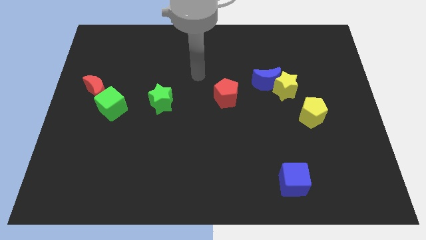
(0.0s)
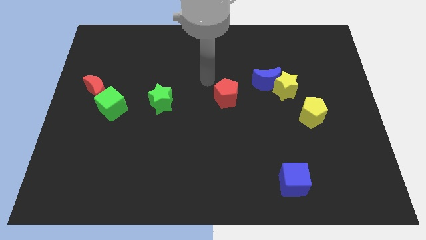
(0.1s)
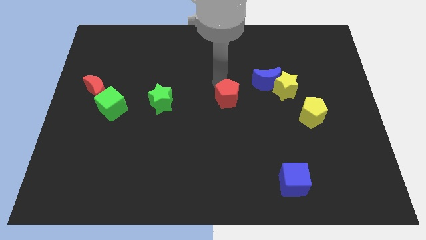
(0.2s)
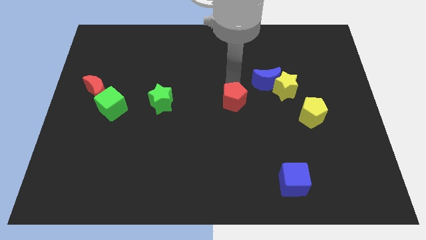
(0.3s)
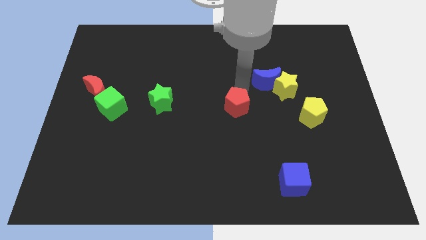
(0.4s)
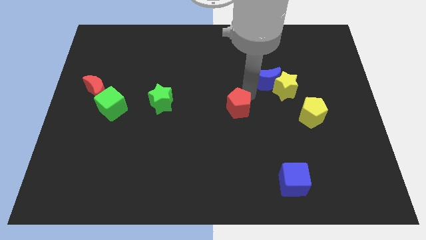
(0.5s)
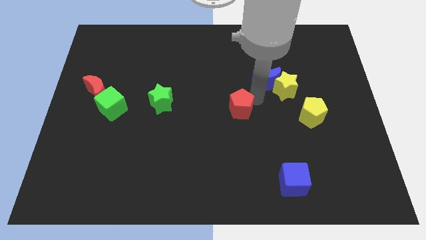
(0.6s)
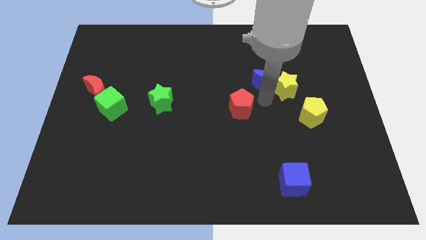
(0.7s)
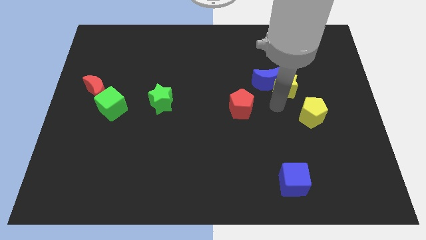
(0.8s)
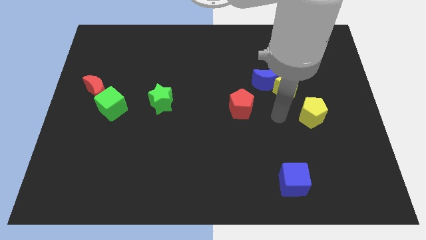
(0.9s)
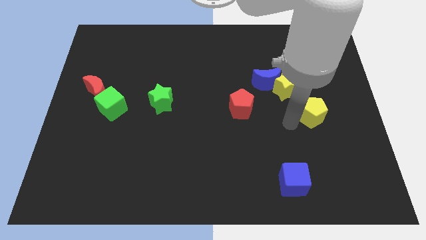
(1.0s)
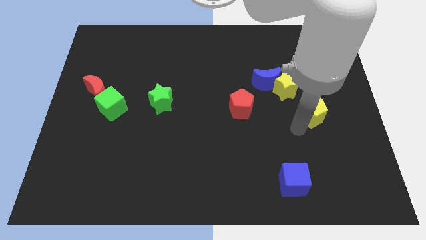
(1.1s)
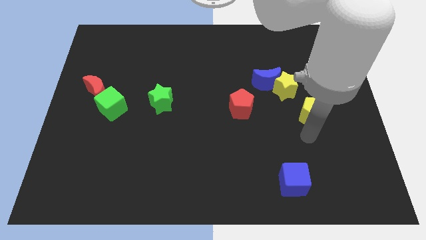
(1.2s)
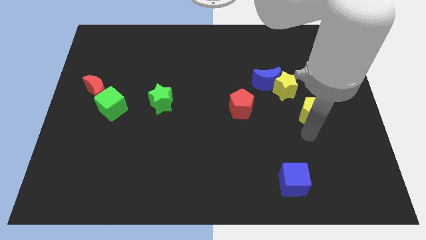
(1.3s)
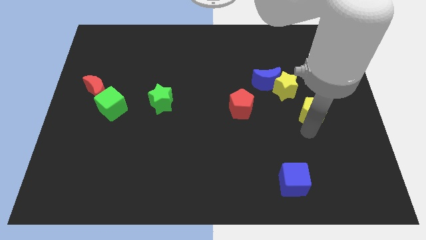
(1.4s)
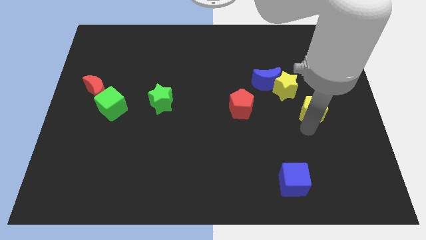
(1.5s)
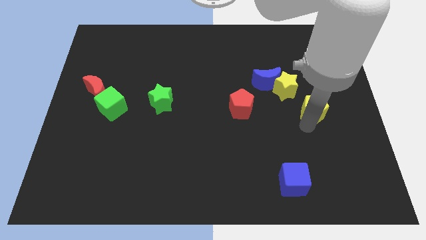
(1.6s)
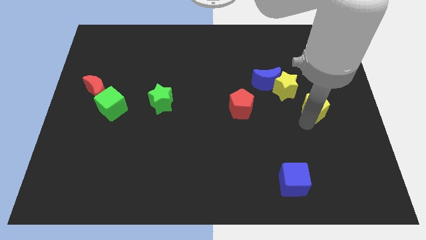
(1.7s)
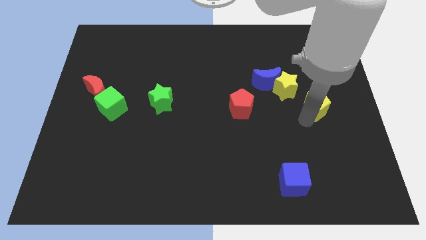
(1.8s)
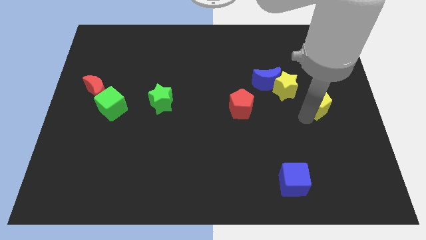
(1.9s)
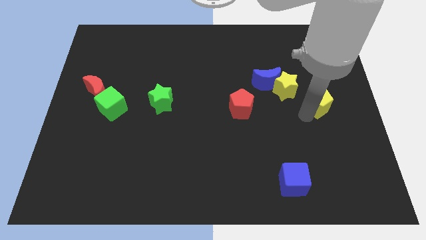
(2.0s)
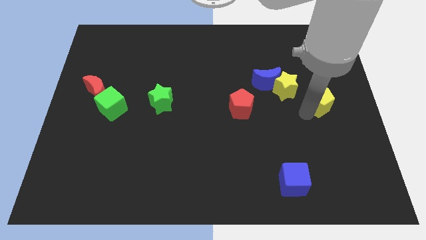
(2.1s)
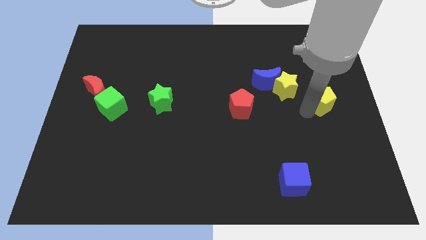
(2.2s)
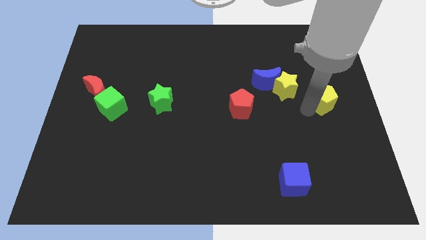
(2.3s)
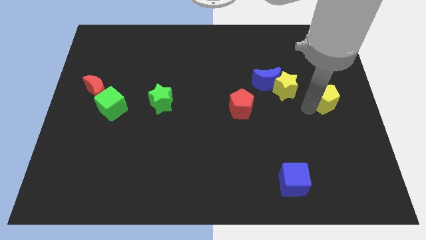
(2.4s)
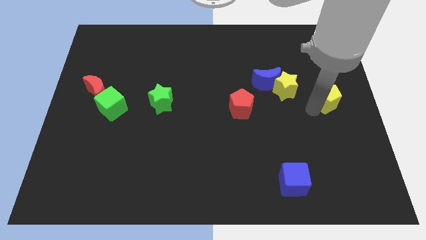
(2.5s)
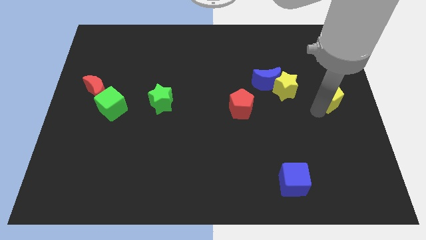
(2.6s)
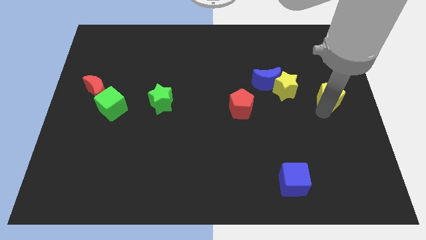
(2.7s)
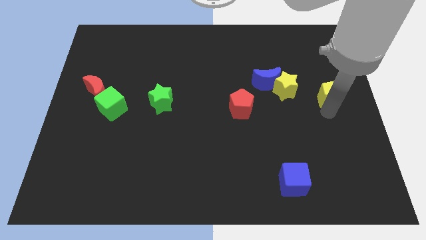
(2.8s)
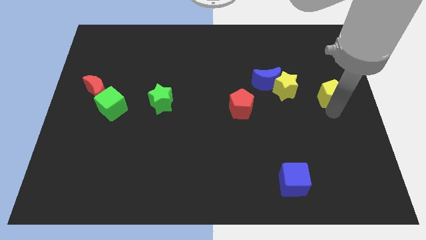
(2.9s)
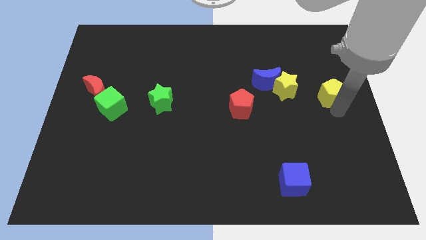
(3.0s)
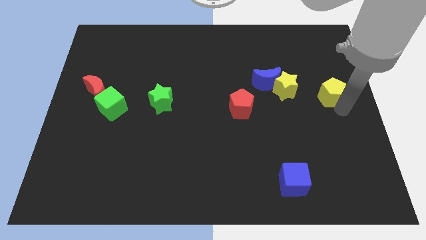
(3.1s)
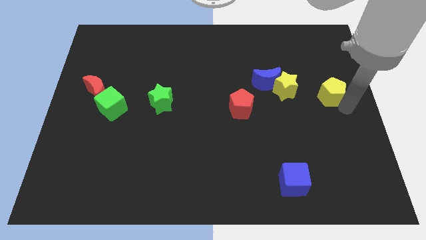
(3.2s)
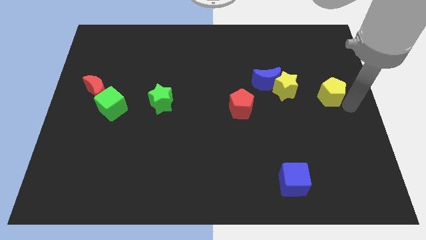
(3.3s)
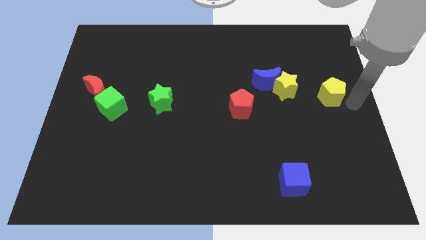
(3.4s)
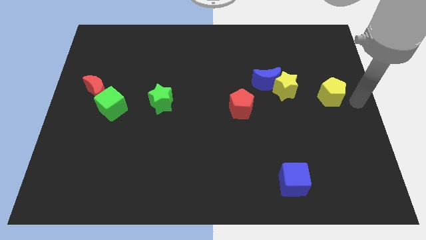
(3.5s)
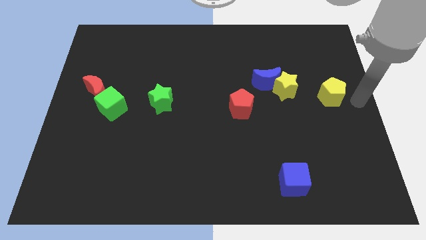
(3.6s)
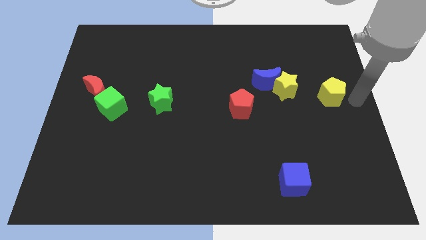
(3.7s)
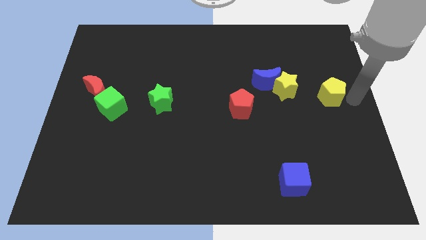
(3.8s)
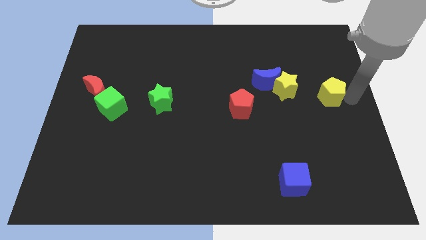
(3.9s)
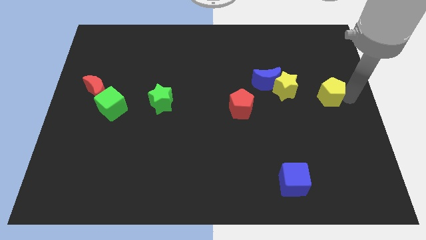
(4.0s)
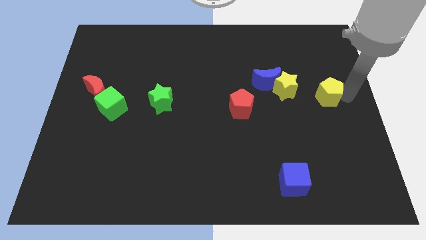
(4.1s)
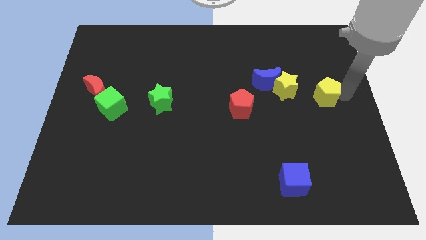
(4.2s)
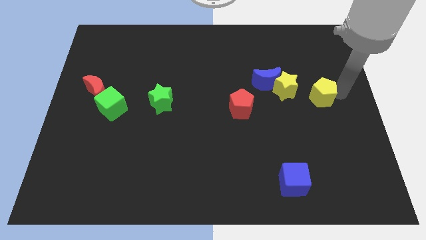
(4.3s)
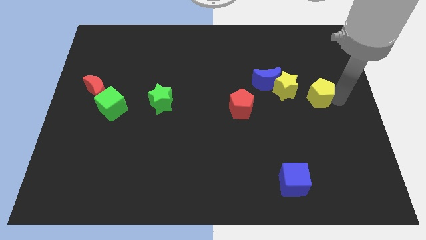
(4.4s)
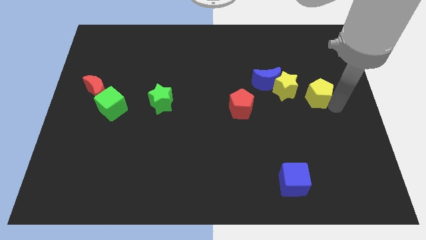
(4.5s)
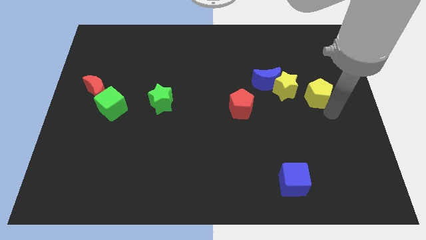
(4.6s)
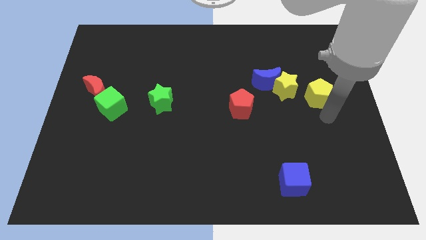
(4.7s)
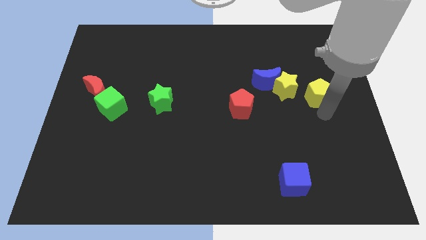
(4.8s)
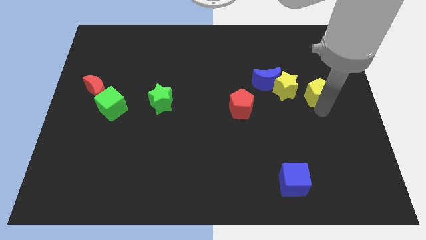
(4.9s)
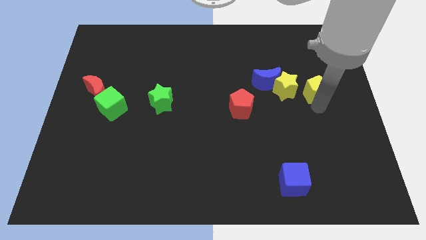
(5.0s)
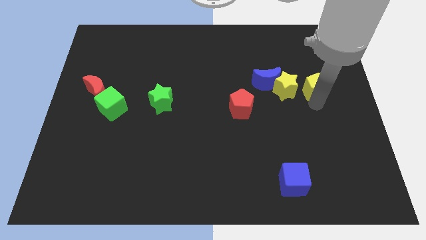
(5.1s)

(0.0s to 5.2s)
move the yellow pentagon up a bit

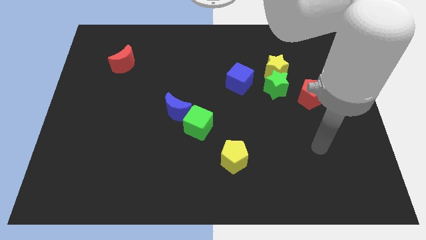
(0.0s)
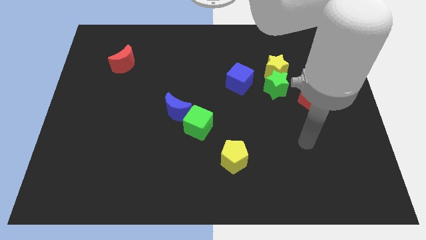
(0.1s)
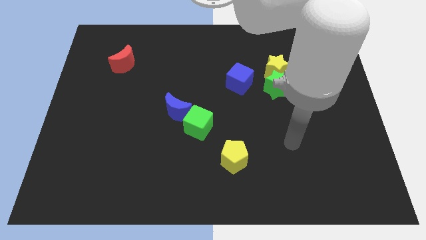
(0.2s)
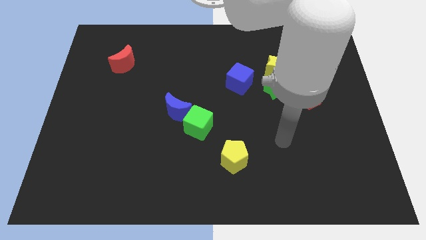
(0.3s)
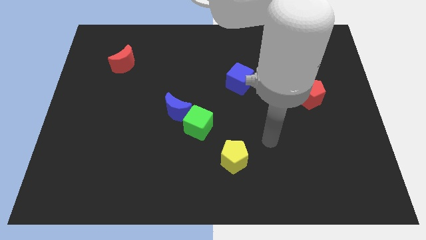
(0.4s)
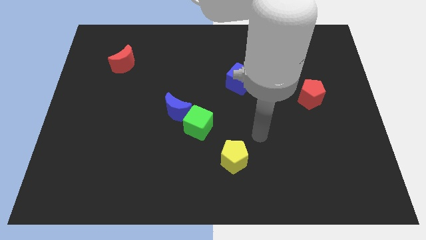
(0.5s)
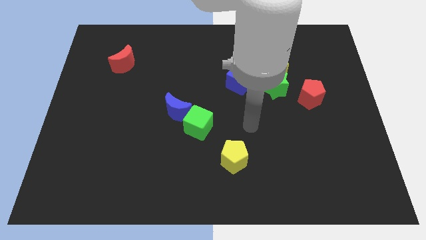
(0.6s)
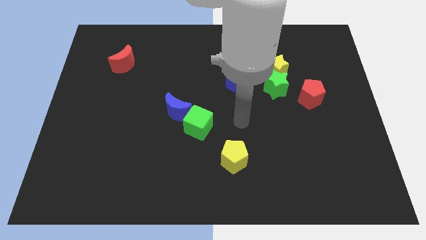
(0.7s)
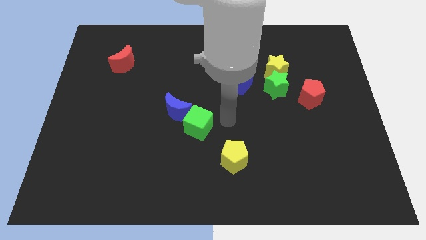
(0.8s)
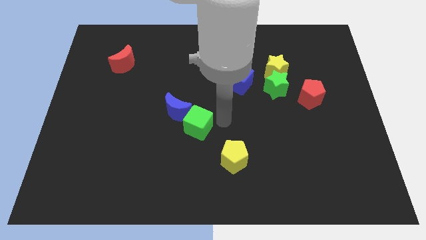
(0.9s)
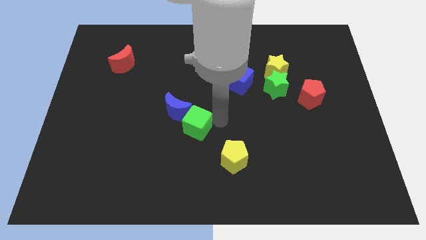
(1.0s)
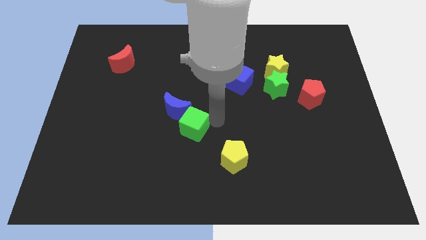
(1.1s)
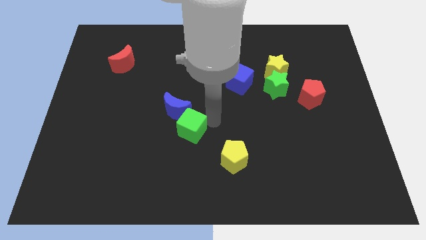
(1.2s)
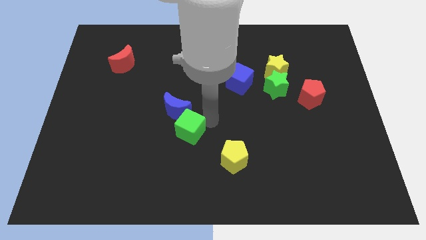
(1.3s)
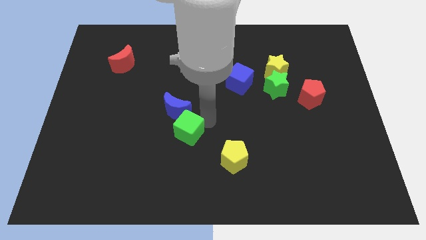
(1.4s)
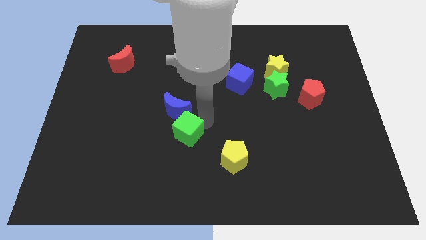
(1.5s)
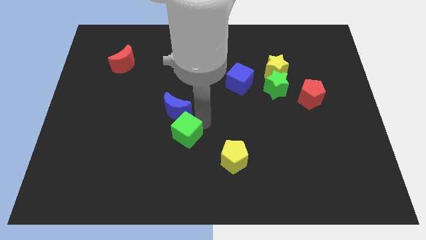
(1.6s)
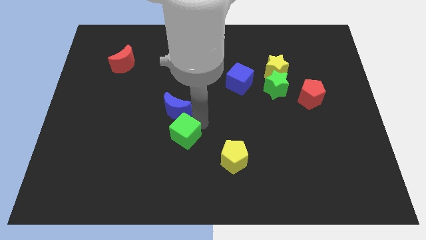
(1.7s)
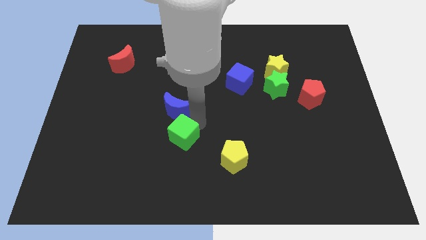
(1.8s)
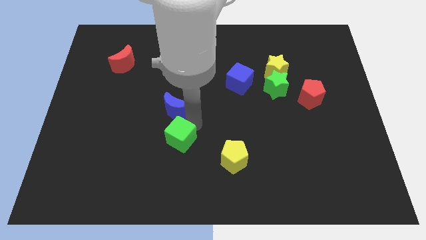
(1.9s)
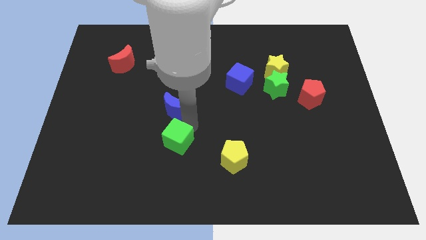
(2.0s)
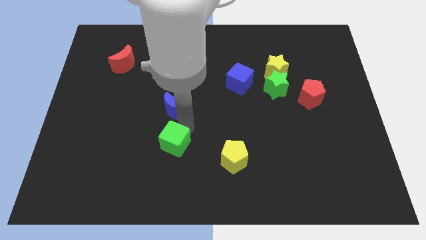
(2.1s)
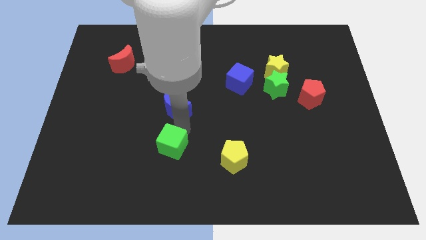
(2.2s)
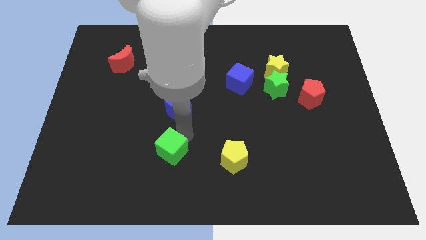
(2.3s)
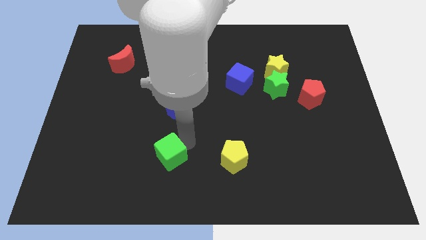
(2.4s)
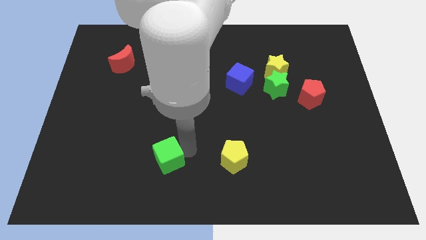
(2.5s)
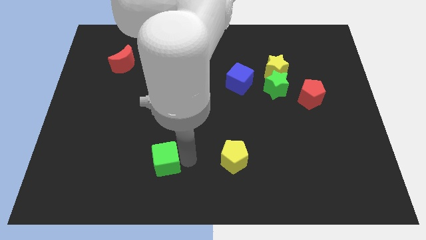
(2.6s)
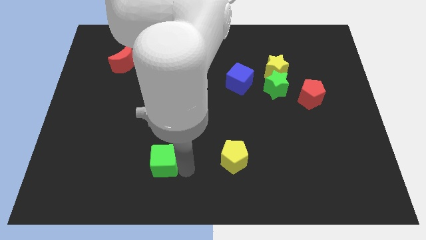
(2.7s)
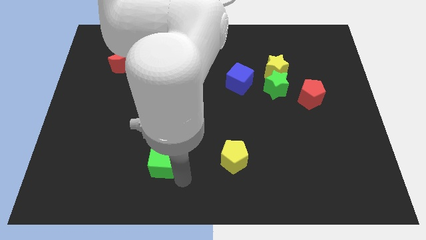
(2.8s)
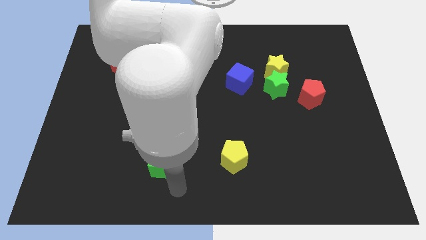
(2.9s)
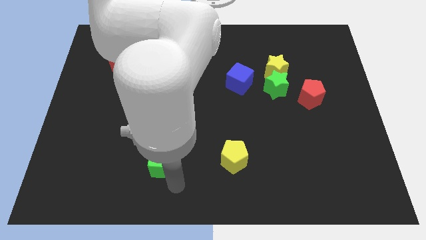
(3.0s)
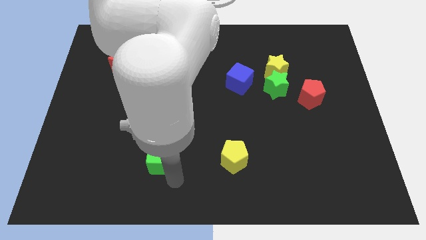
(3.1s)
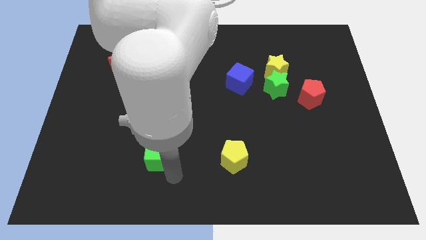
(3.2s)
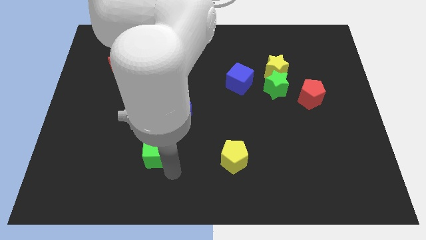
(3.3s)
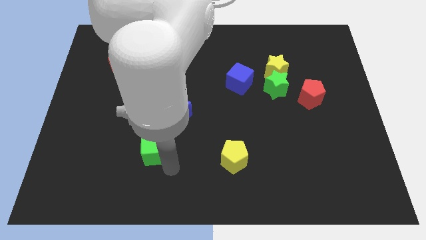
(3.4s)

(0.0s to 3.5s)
slide the green cube a little bit left
